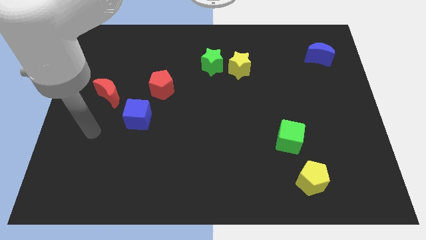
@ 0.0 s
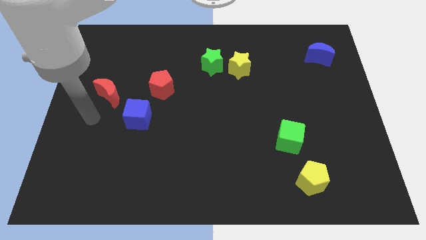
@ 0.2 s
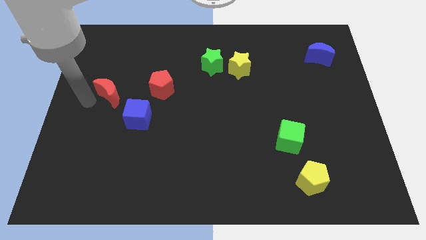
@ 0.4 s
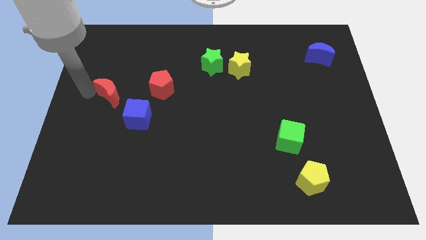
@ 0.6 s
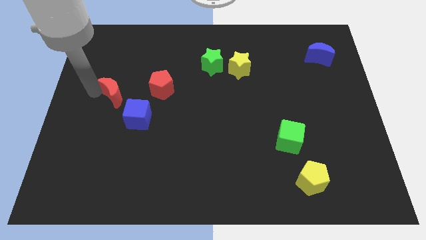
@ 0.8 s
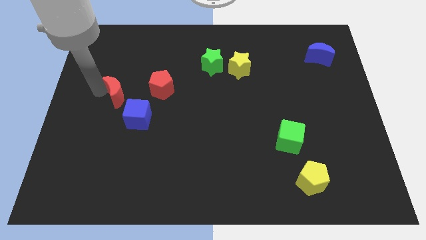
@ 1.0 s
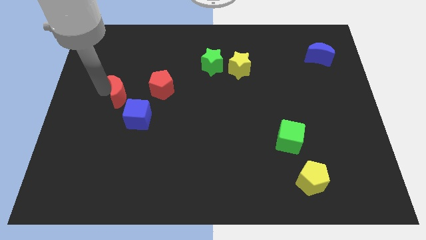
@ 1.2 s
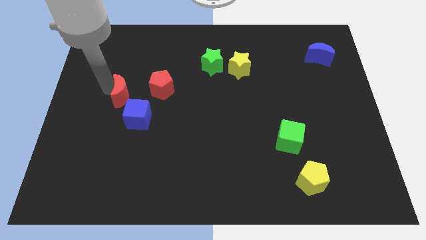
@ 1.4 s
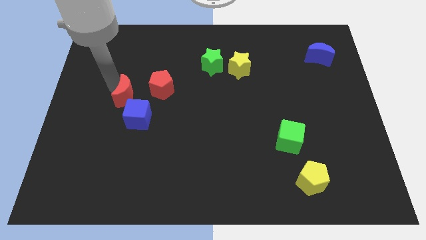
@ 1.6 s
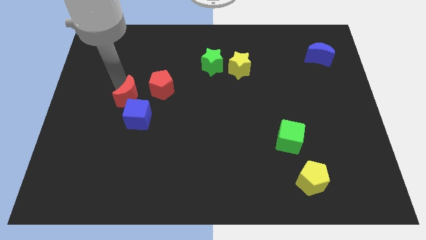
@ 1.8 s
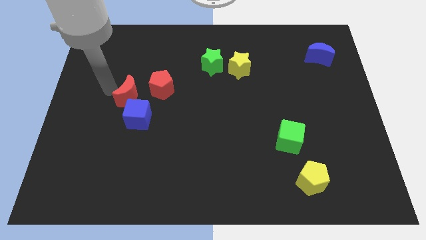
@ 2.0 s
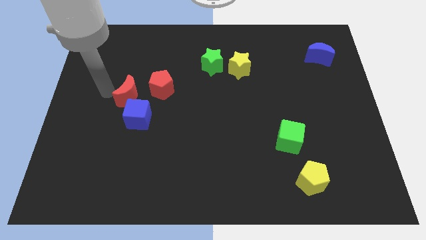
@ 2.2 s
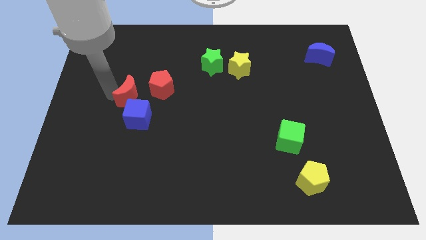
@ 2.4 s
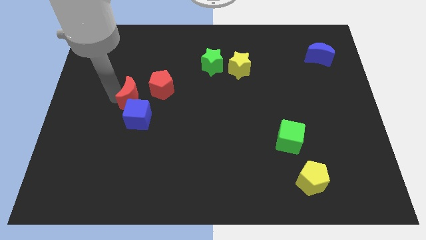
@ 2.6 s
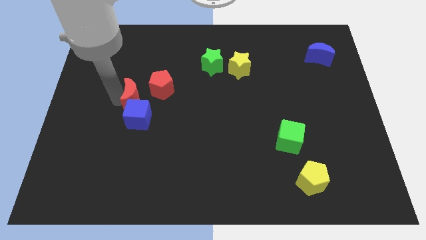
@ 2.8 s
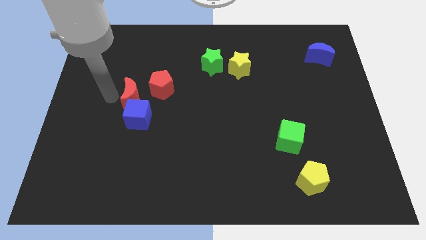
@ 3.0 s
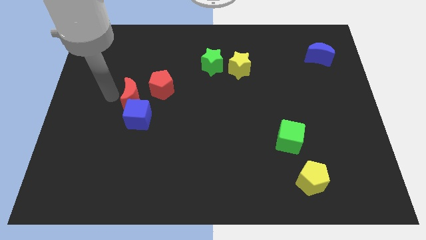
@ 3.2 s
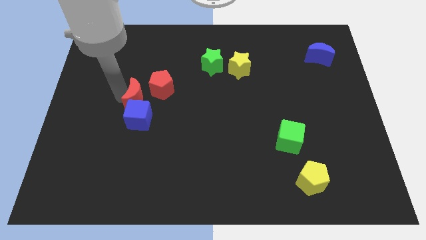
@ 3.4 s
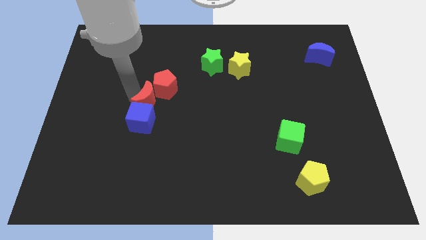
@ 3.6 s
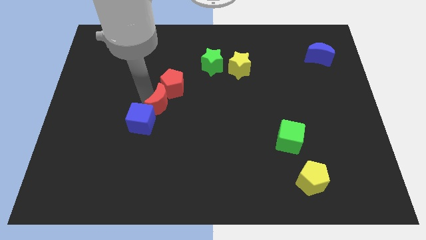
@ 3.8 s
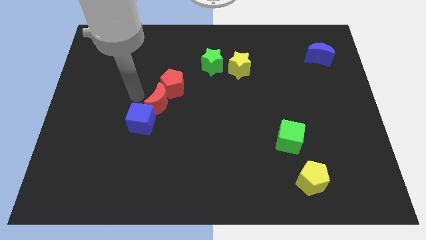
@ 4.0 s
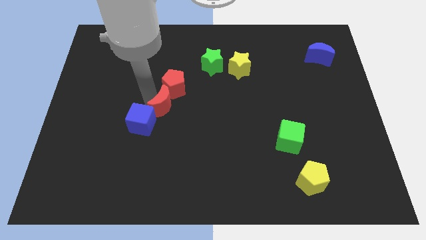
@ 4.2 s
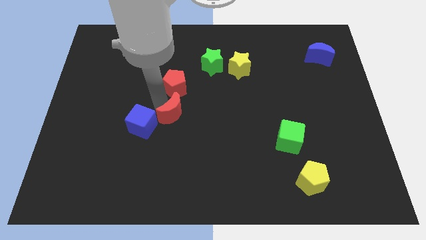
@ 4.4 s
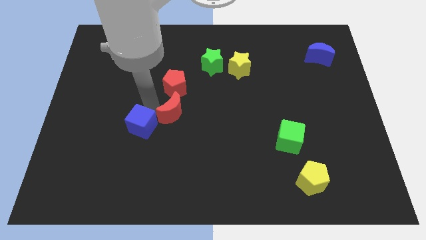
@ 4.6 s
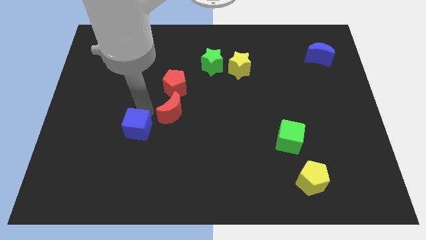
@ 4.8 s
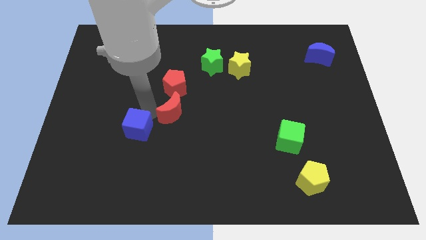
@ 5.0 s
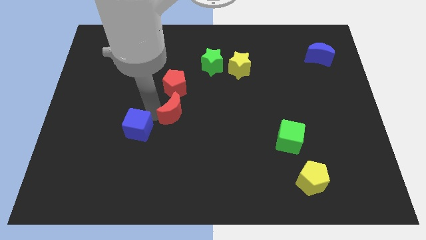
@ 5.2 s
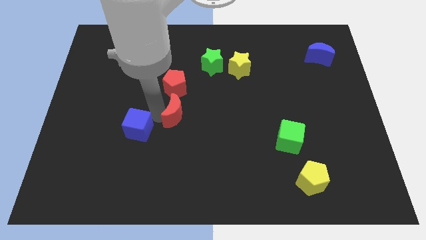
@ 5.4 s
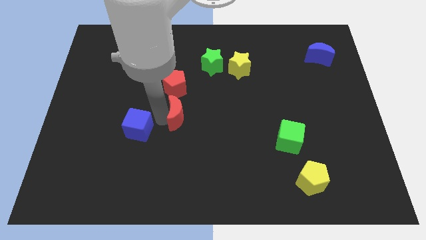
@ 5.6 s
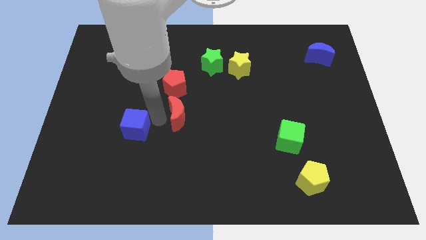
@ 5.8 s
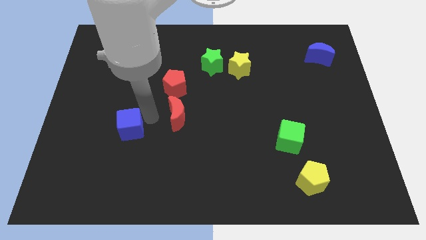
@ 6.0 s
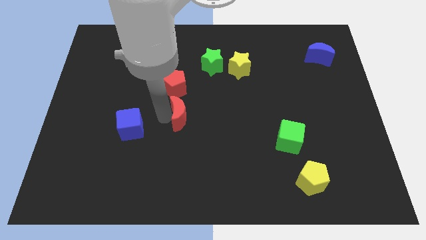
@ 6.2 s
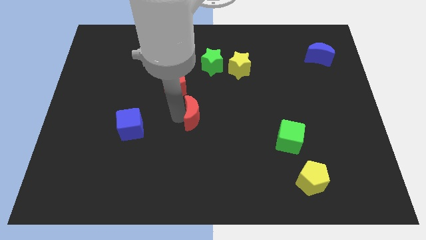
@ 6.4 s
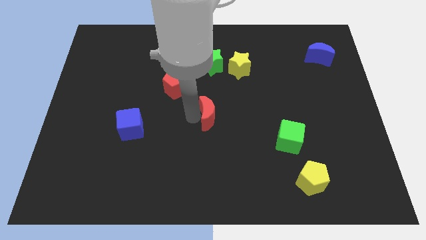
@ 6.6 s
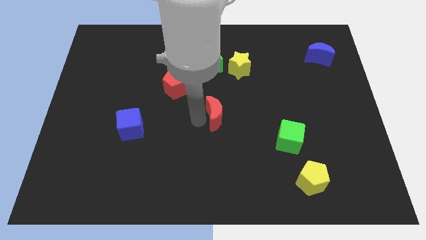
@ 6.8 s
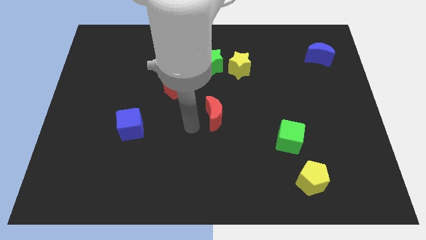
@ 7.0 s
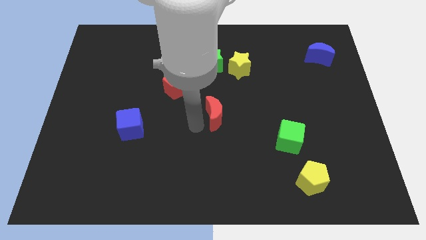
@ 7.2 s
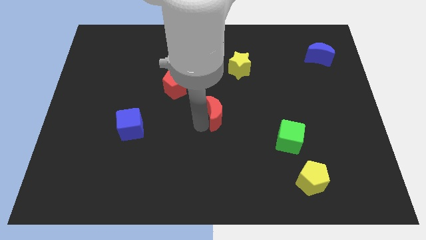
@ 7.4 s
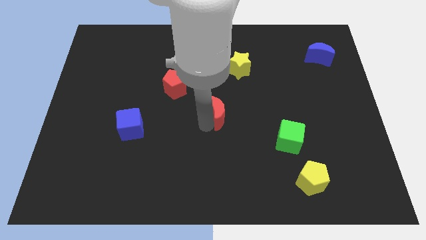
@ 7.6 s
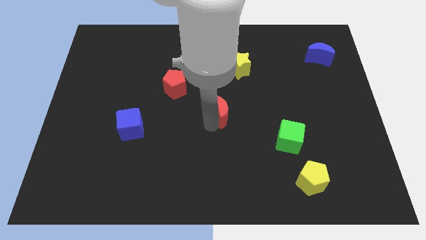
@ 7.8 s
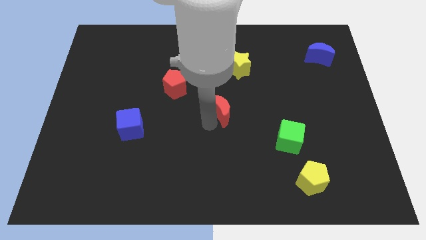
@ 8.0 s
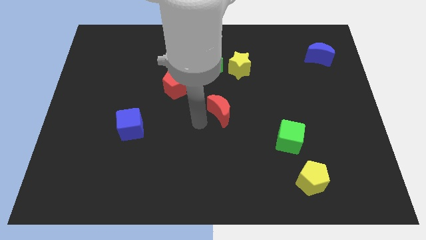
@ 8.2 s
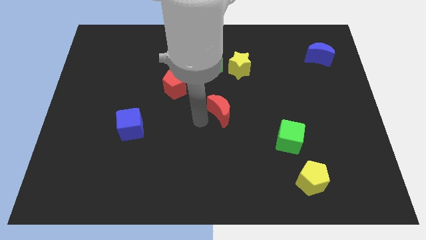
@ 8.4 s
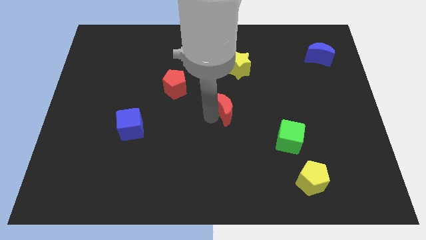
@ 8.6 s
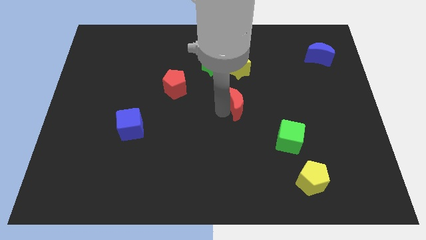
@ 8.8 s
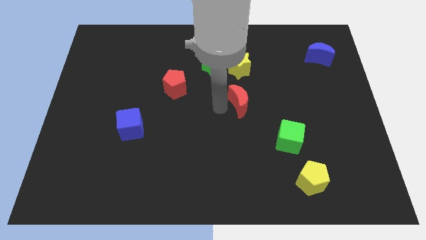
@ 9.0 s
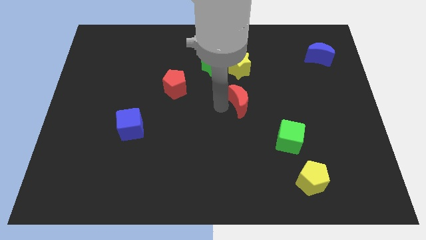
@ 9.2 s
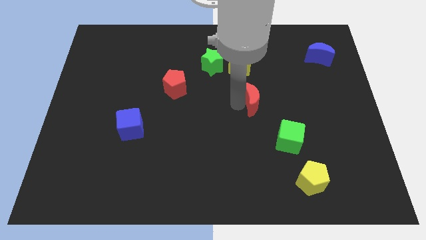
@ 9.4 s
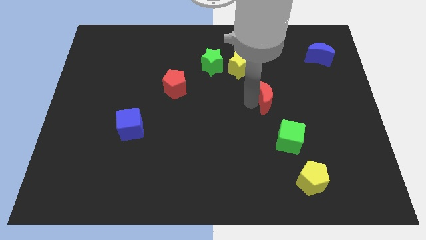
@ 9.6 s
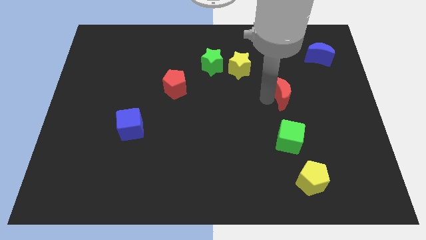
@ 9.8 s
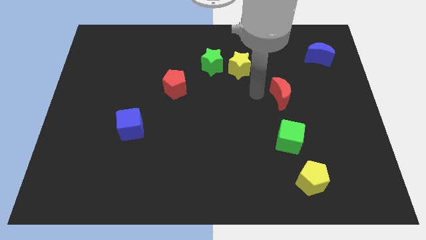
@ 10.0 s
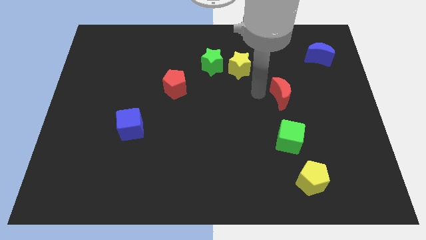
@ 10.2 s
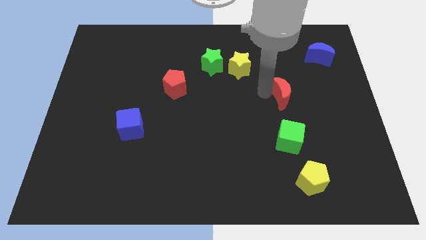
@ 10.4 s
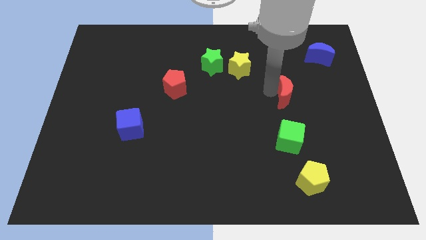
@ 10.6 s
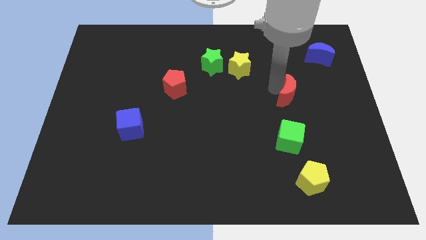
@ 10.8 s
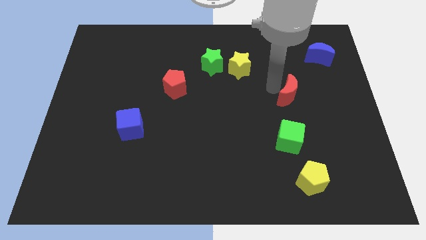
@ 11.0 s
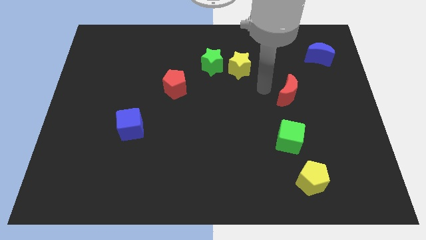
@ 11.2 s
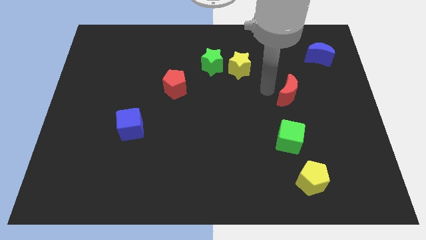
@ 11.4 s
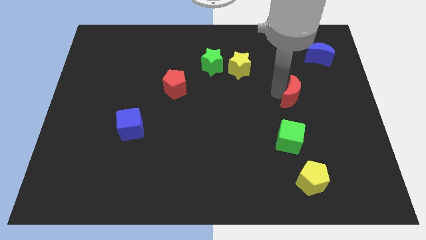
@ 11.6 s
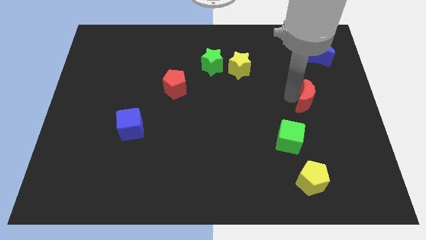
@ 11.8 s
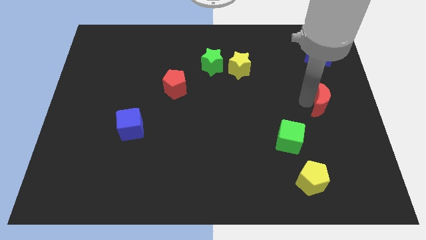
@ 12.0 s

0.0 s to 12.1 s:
slide the red moon to the right side of the board
